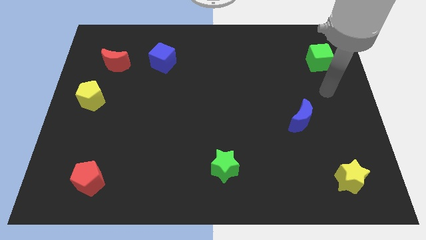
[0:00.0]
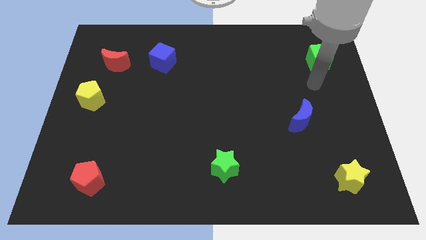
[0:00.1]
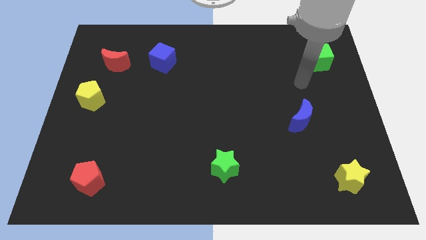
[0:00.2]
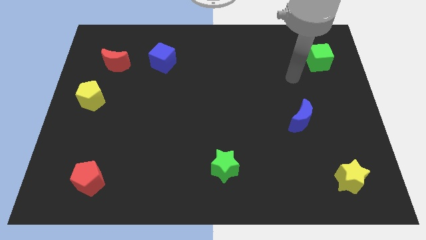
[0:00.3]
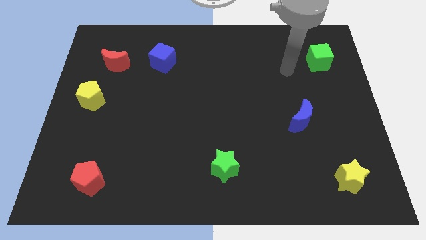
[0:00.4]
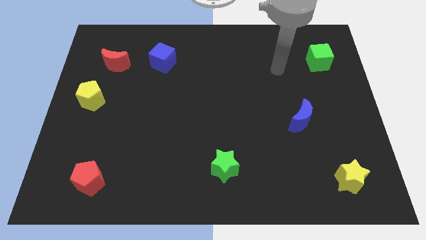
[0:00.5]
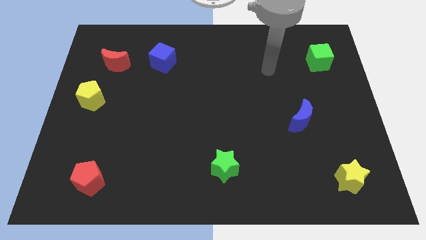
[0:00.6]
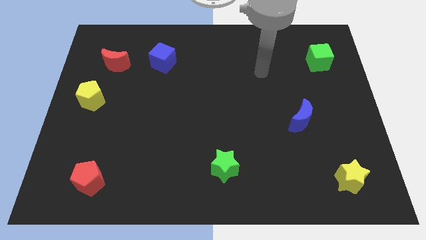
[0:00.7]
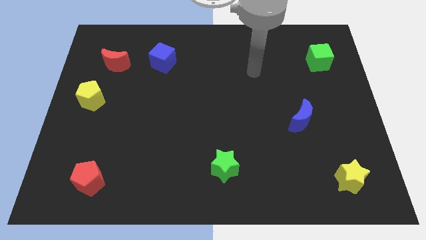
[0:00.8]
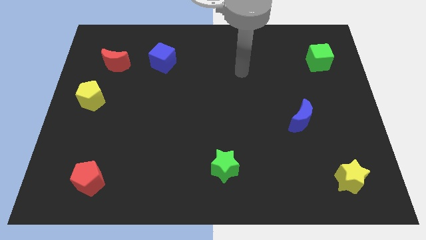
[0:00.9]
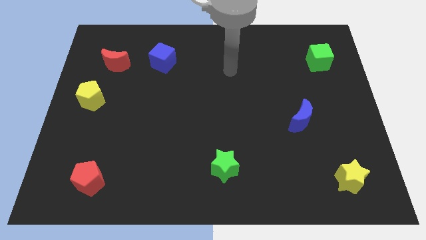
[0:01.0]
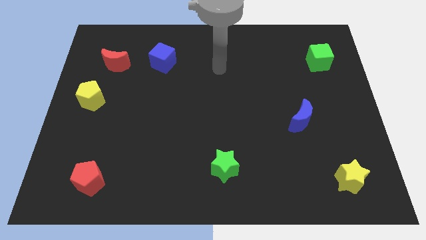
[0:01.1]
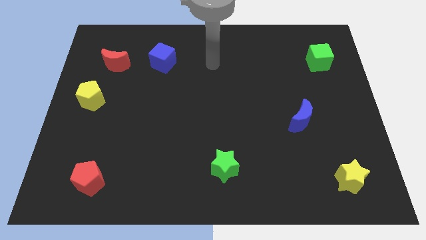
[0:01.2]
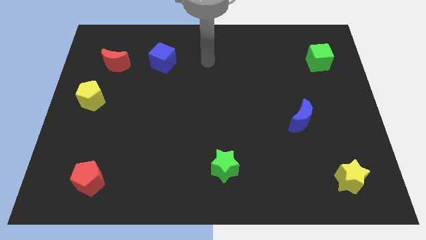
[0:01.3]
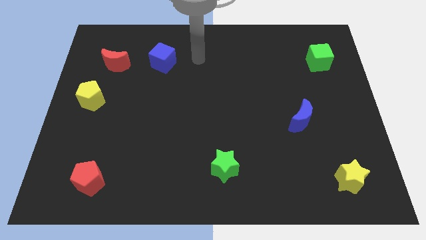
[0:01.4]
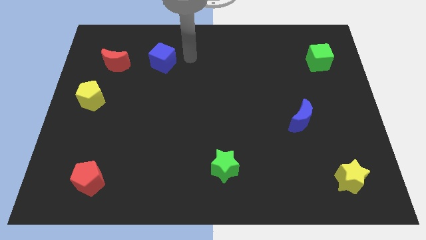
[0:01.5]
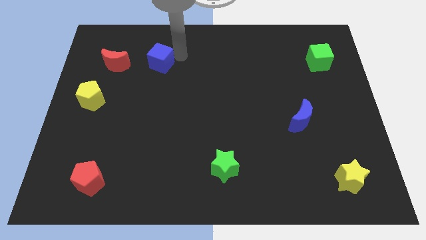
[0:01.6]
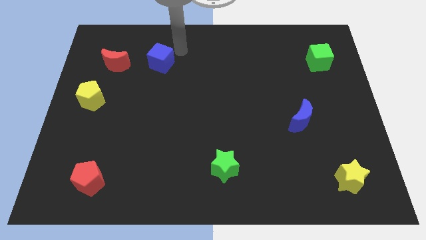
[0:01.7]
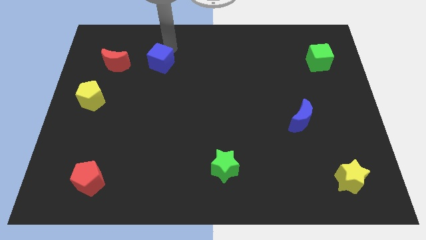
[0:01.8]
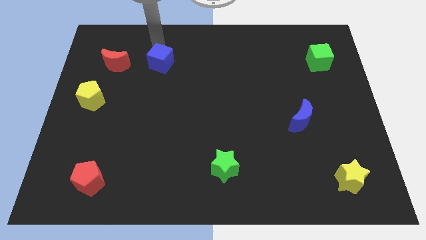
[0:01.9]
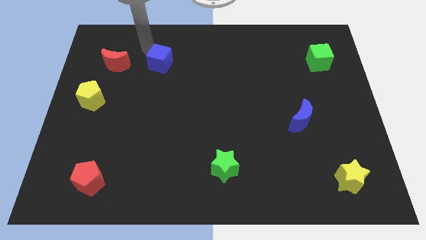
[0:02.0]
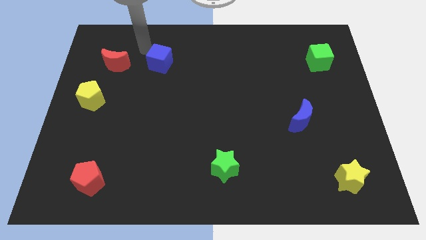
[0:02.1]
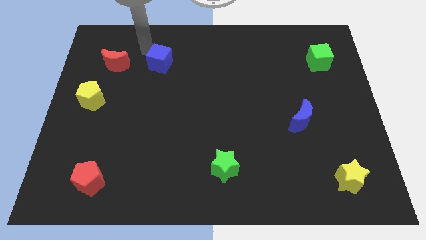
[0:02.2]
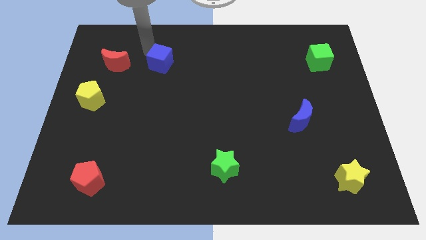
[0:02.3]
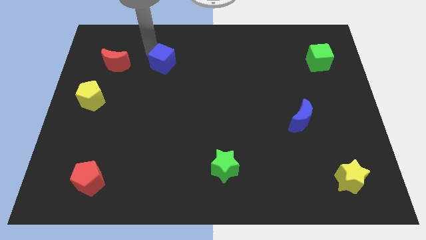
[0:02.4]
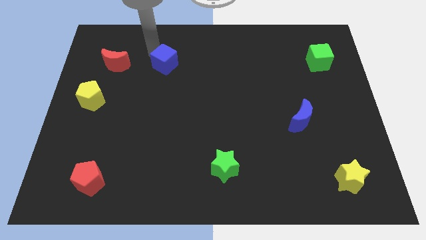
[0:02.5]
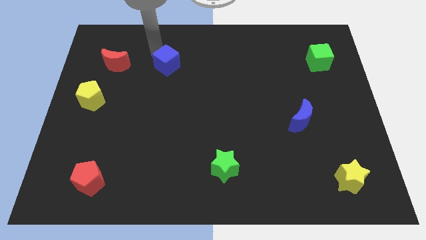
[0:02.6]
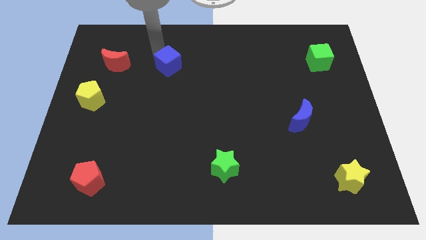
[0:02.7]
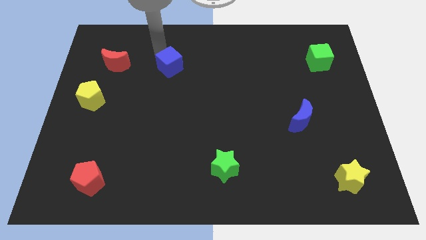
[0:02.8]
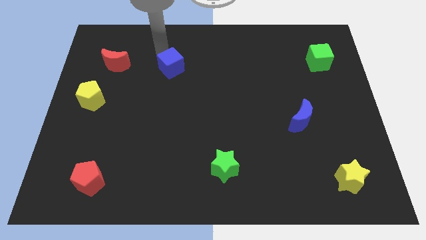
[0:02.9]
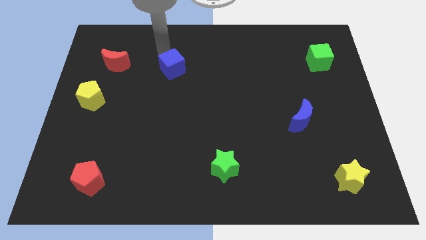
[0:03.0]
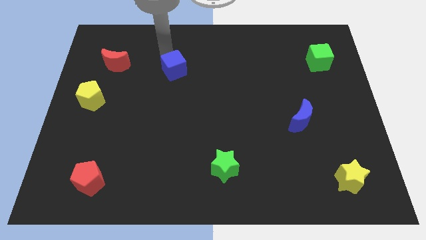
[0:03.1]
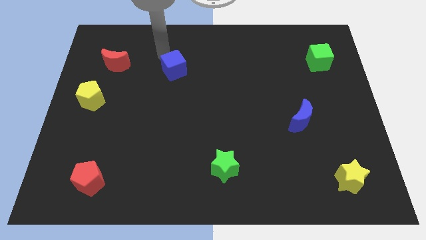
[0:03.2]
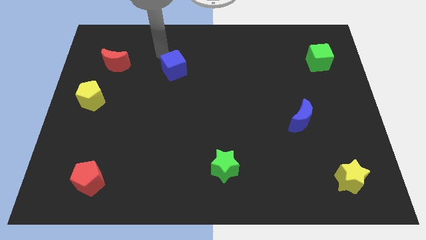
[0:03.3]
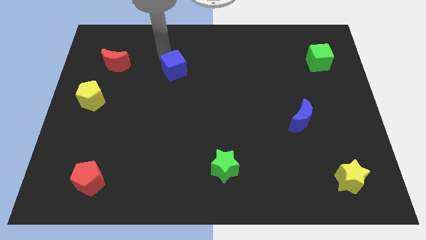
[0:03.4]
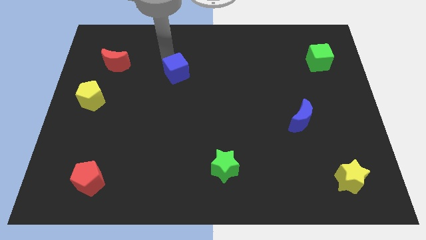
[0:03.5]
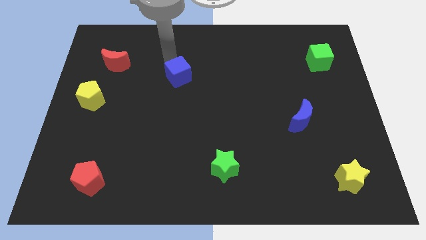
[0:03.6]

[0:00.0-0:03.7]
move the blue cube diagonally downwards and to the right a bit

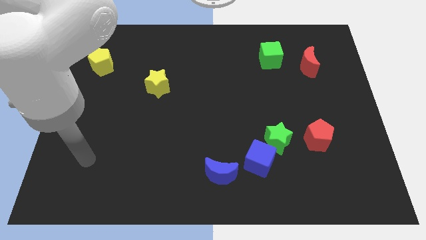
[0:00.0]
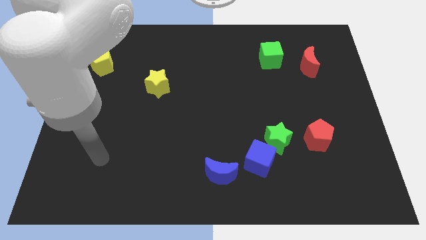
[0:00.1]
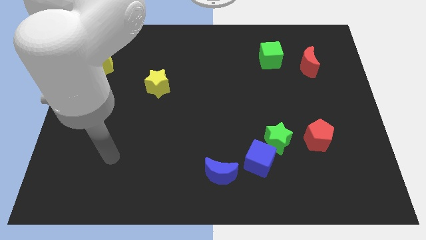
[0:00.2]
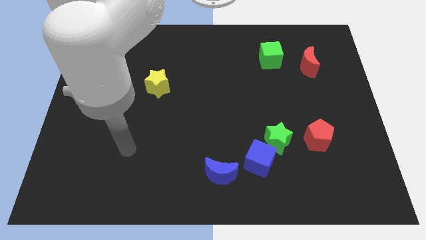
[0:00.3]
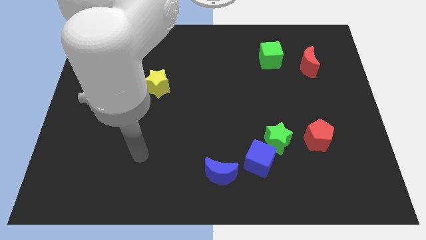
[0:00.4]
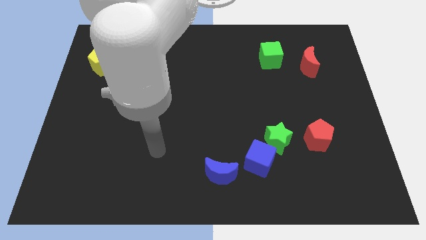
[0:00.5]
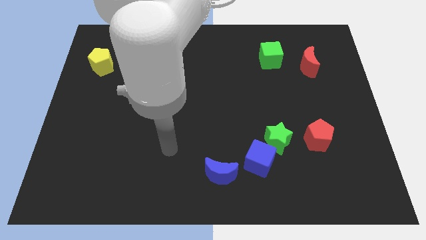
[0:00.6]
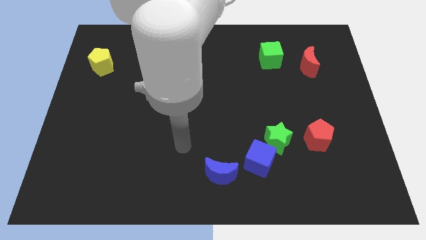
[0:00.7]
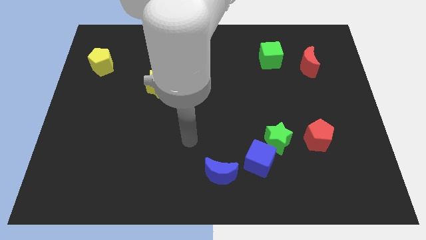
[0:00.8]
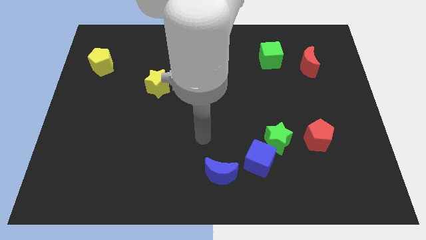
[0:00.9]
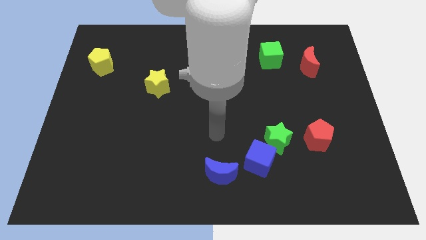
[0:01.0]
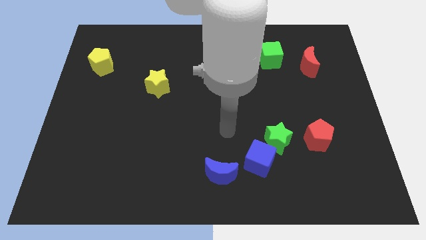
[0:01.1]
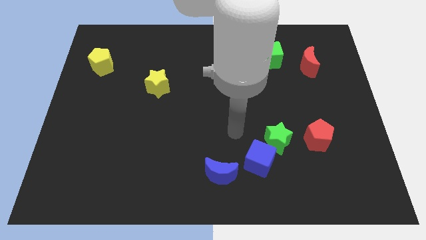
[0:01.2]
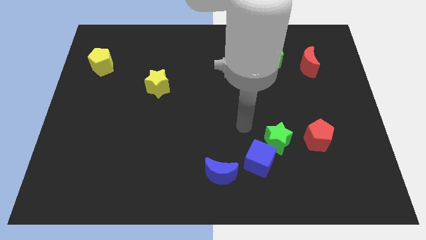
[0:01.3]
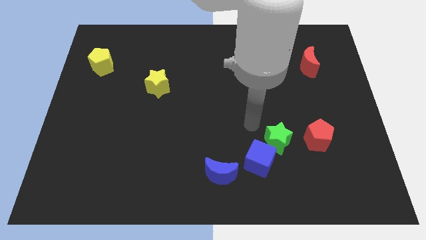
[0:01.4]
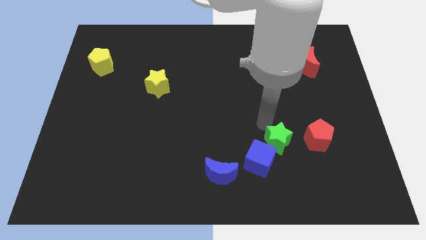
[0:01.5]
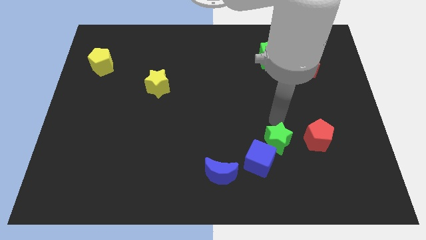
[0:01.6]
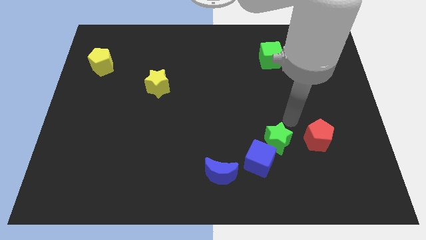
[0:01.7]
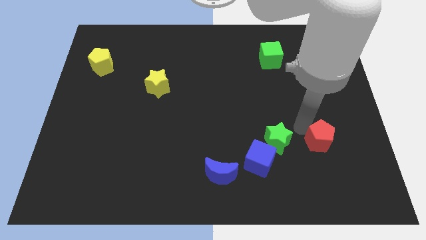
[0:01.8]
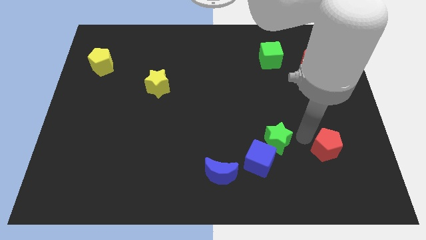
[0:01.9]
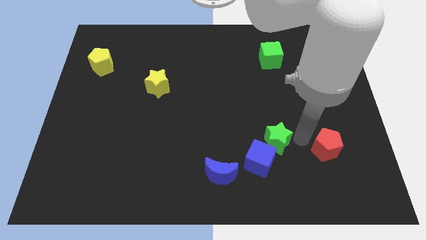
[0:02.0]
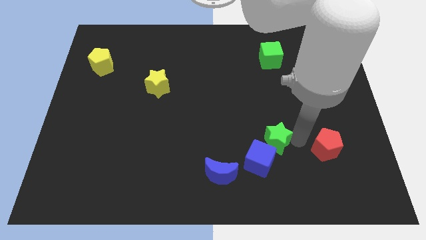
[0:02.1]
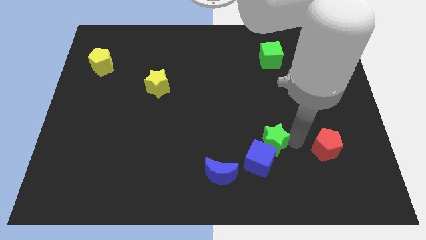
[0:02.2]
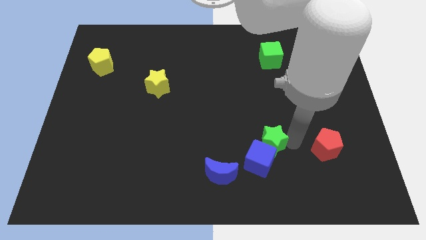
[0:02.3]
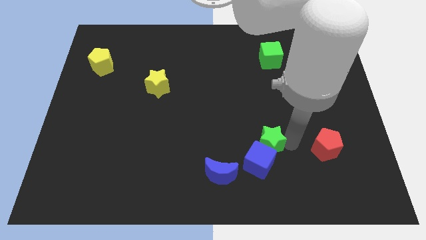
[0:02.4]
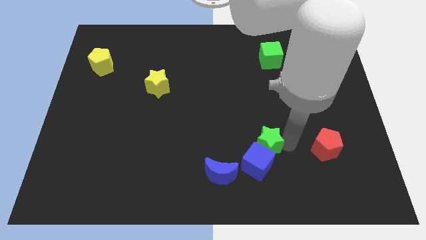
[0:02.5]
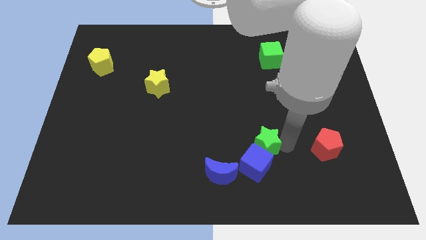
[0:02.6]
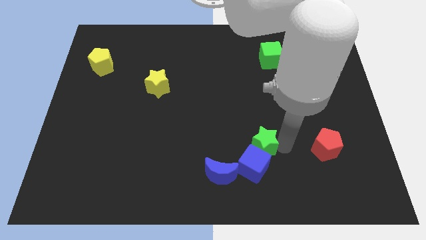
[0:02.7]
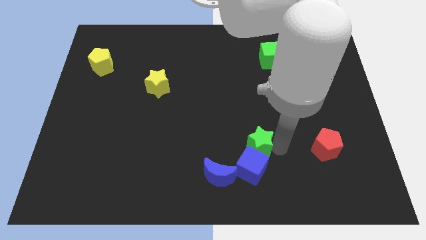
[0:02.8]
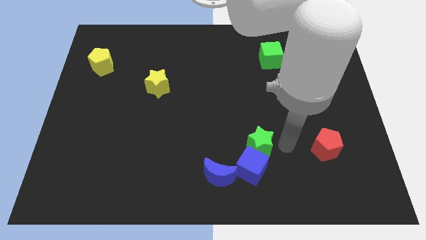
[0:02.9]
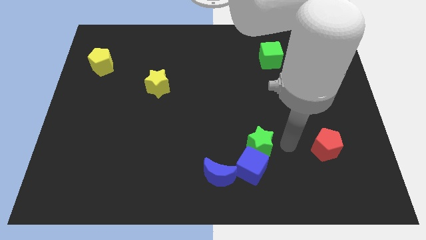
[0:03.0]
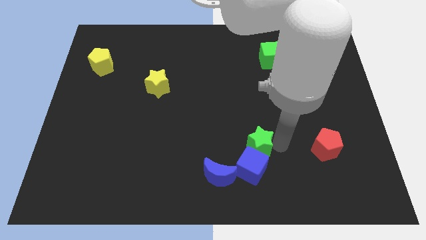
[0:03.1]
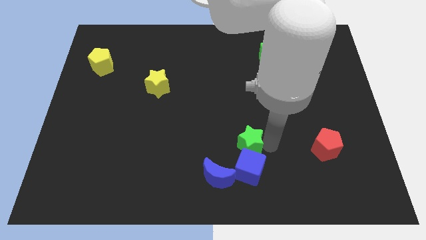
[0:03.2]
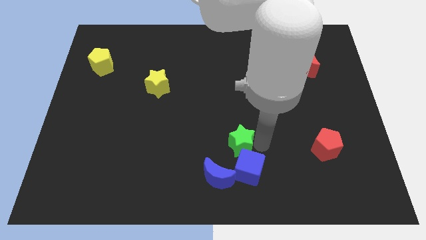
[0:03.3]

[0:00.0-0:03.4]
move the green star left somewhat

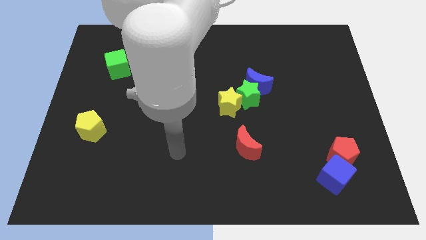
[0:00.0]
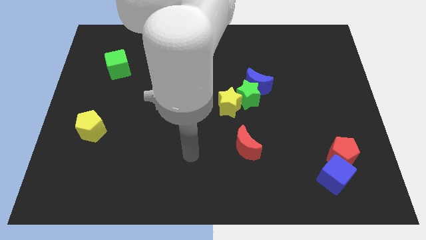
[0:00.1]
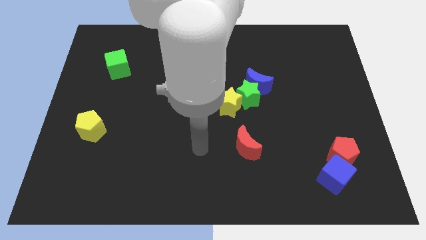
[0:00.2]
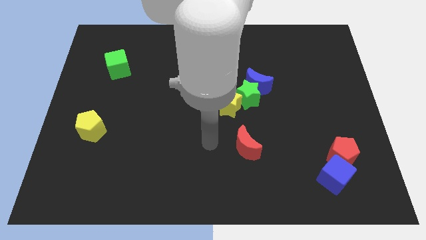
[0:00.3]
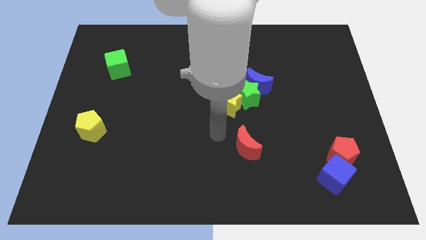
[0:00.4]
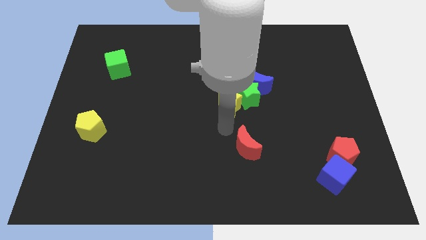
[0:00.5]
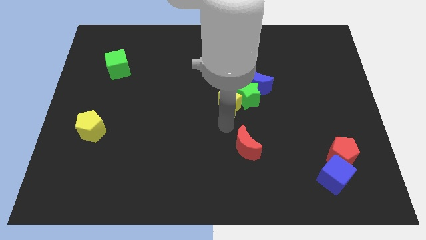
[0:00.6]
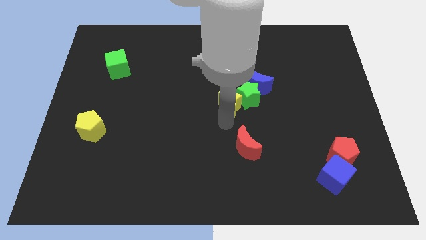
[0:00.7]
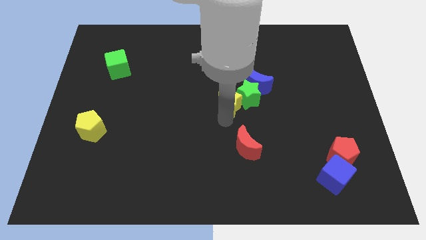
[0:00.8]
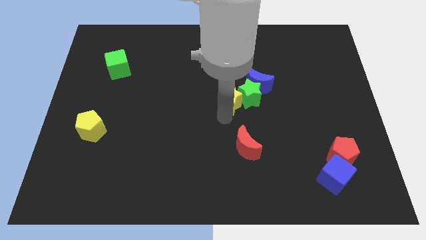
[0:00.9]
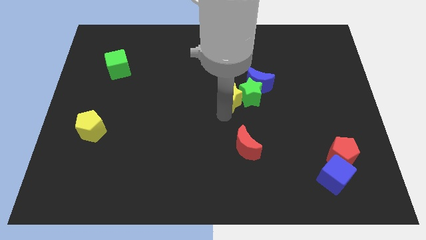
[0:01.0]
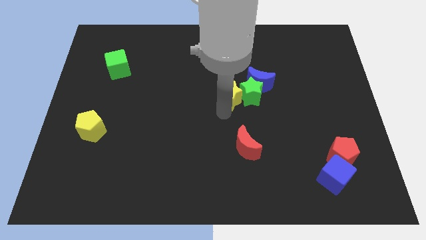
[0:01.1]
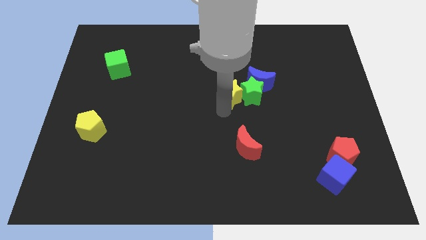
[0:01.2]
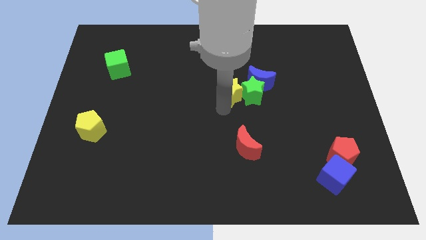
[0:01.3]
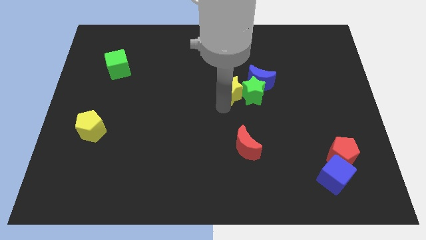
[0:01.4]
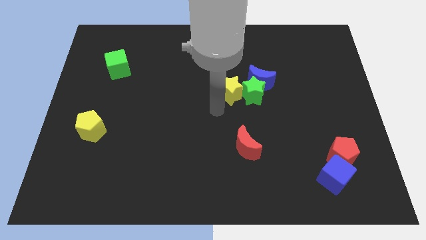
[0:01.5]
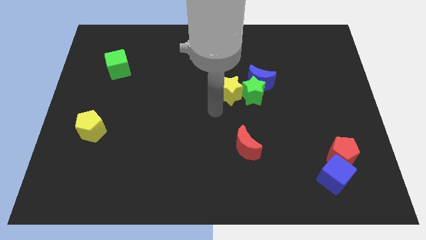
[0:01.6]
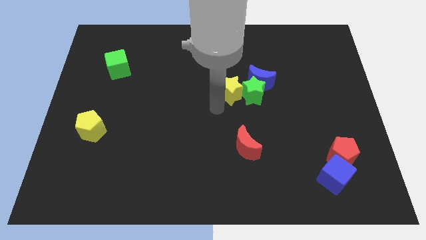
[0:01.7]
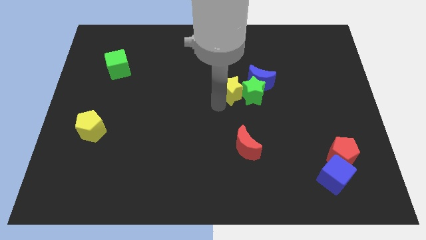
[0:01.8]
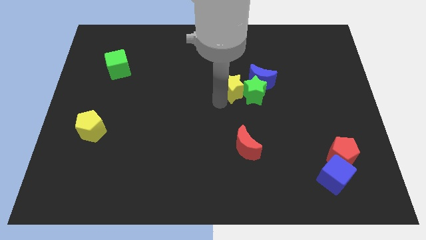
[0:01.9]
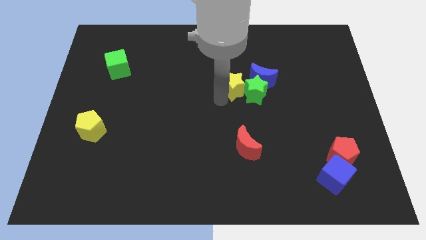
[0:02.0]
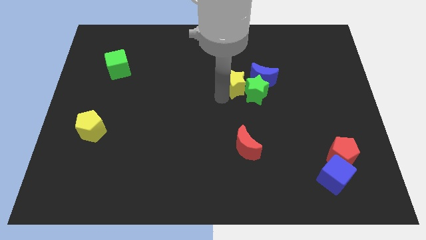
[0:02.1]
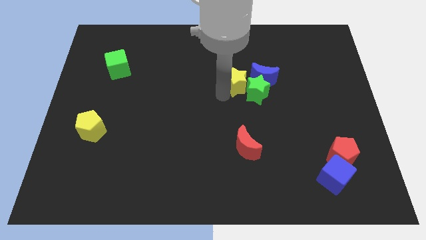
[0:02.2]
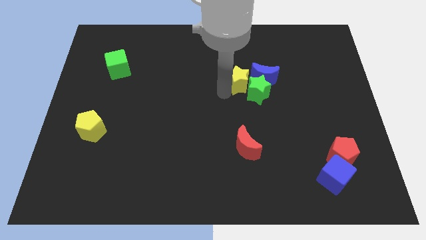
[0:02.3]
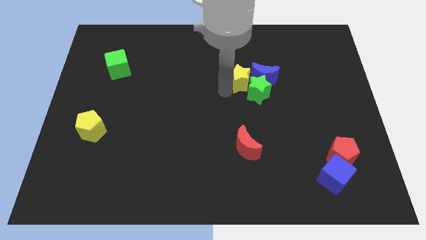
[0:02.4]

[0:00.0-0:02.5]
slide the yellow star slightly up and to the right diagonally
